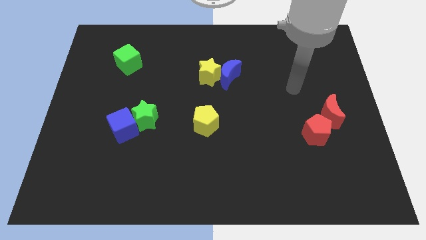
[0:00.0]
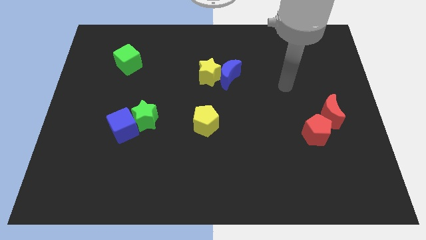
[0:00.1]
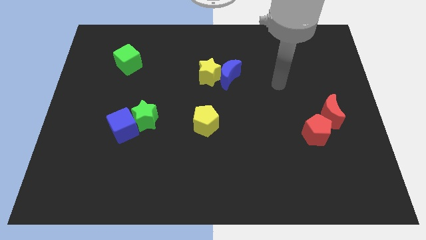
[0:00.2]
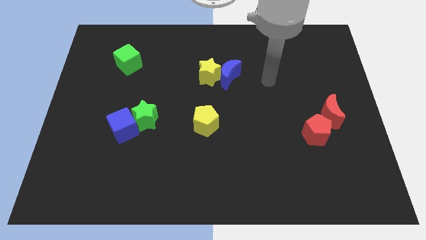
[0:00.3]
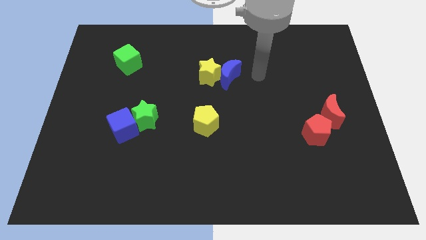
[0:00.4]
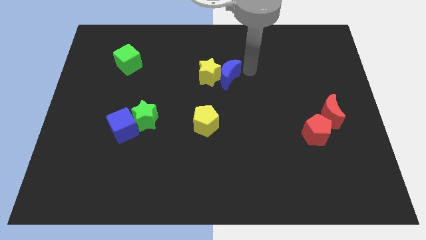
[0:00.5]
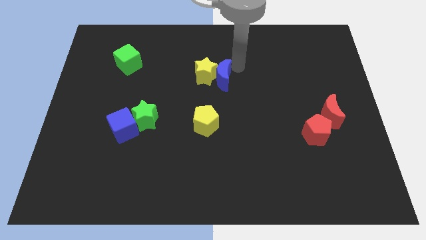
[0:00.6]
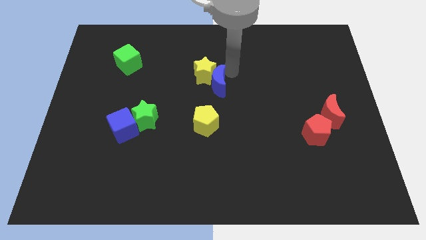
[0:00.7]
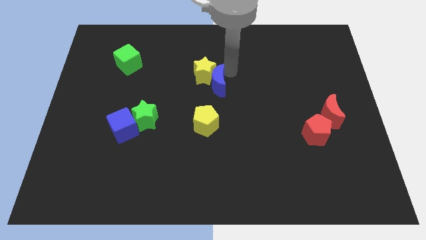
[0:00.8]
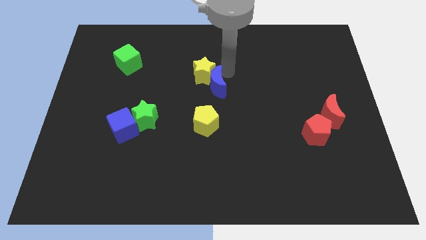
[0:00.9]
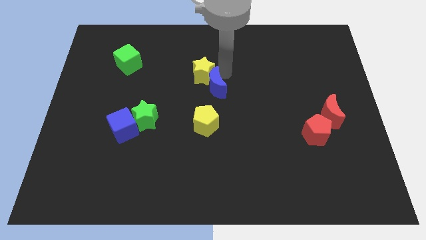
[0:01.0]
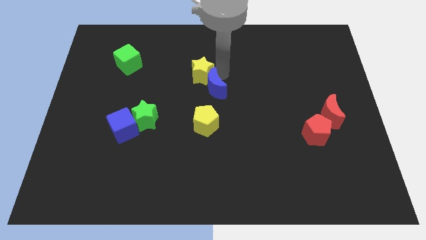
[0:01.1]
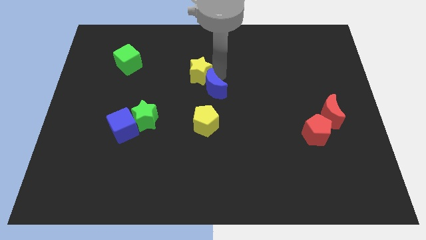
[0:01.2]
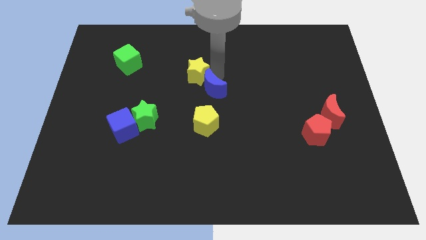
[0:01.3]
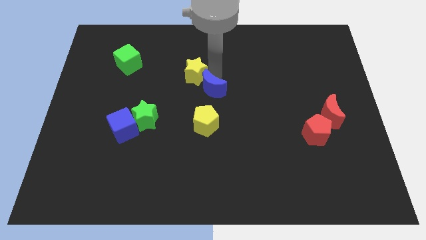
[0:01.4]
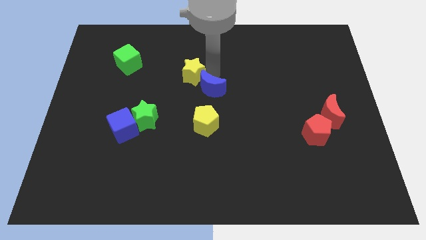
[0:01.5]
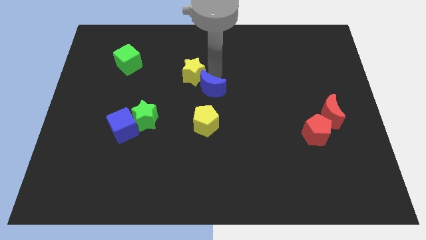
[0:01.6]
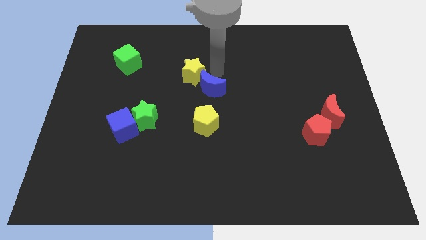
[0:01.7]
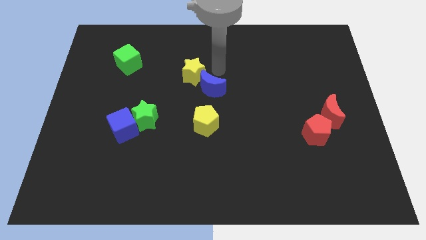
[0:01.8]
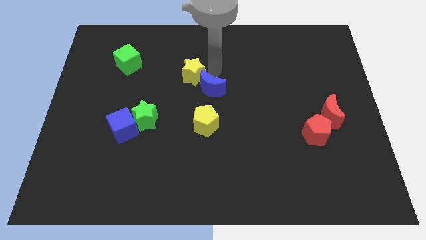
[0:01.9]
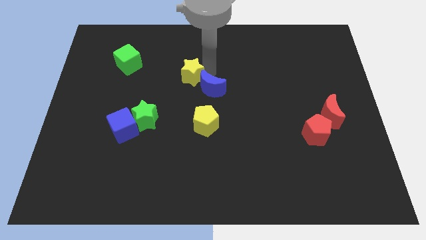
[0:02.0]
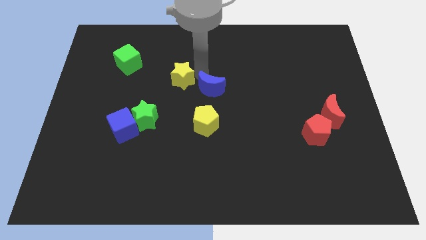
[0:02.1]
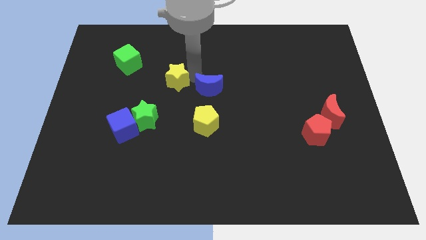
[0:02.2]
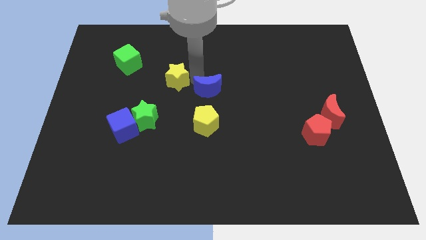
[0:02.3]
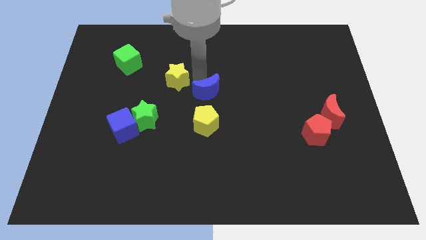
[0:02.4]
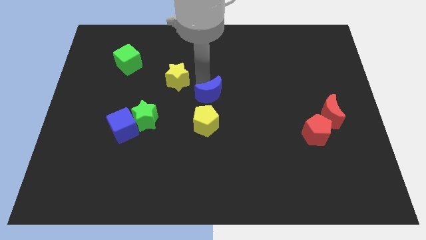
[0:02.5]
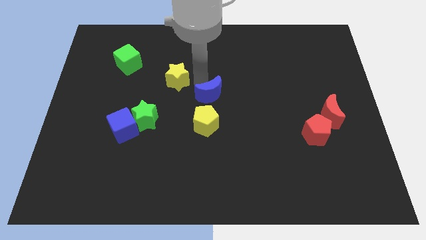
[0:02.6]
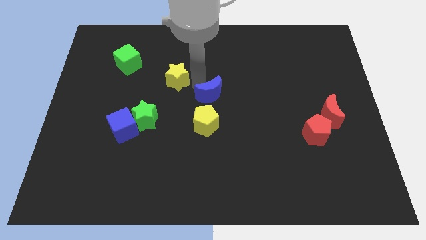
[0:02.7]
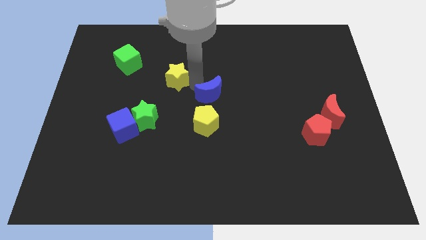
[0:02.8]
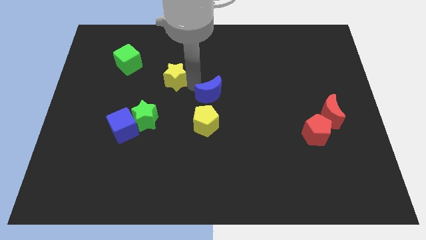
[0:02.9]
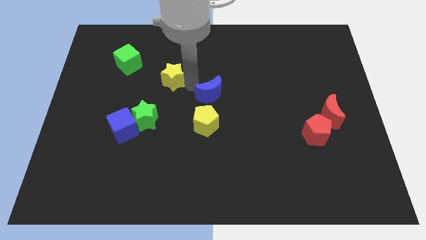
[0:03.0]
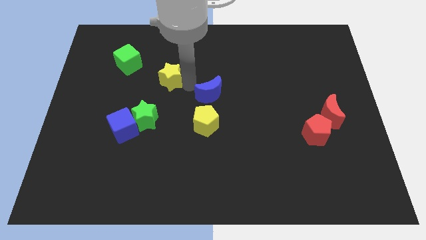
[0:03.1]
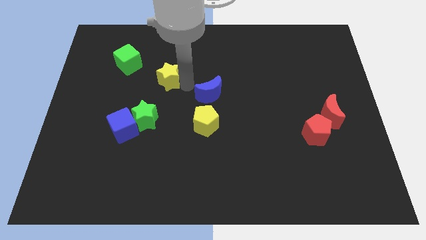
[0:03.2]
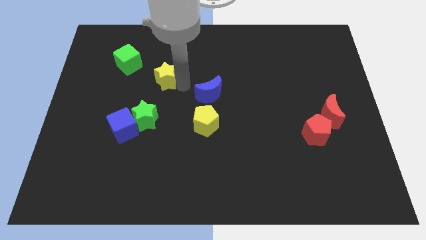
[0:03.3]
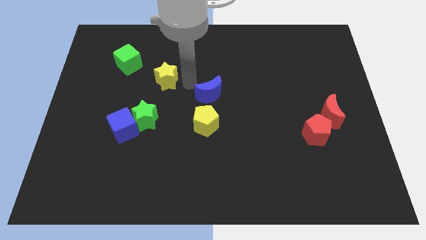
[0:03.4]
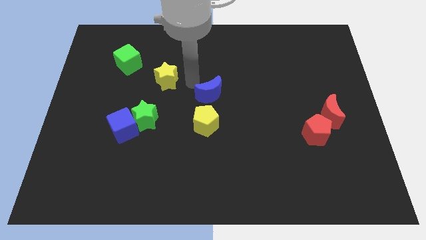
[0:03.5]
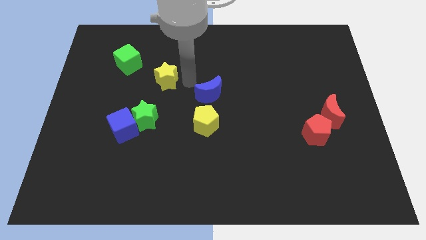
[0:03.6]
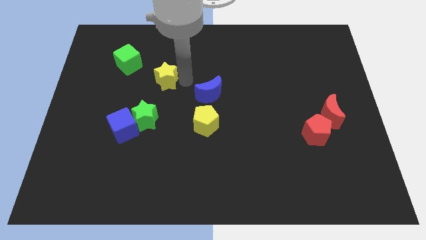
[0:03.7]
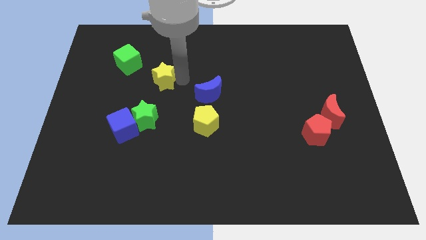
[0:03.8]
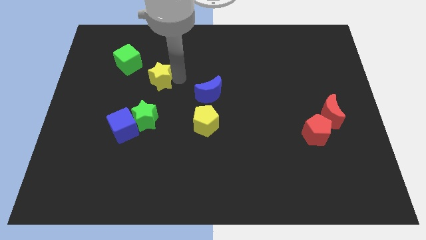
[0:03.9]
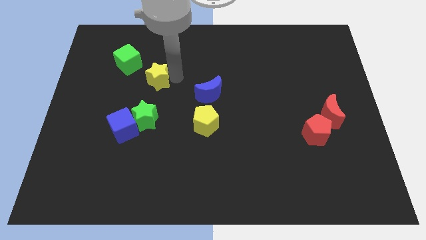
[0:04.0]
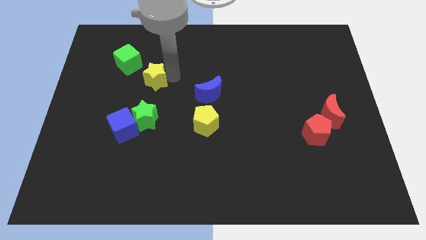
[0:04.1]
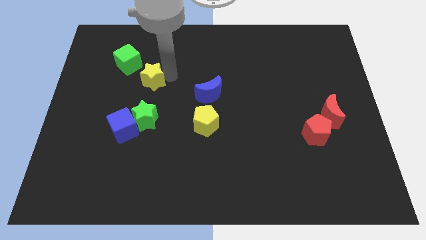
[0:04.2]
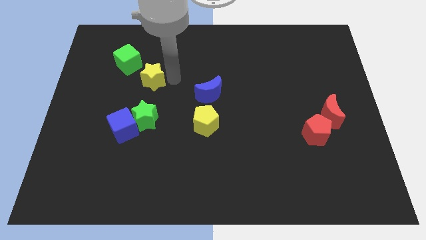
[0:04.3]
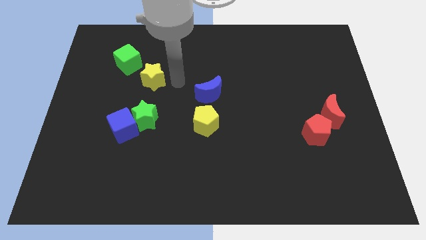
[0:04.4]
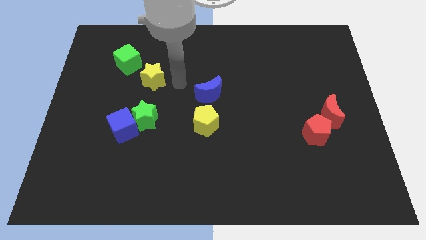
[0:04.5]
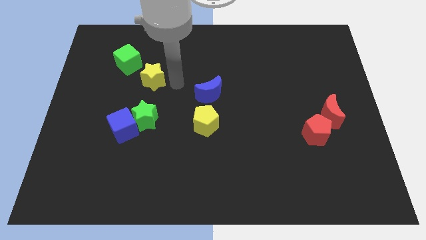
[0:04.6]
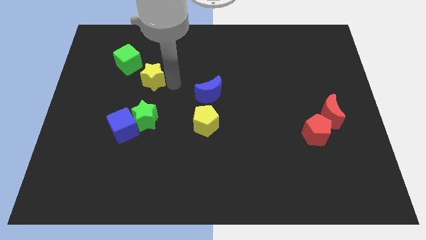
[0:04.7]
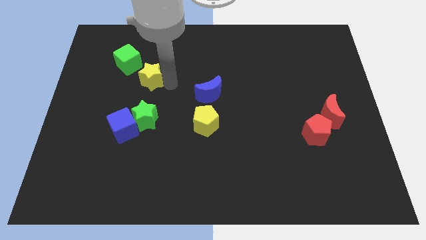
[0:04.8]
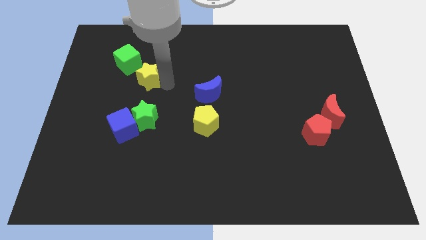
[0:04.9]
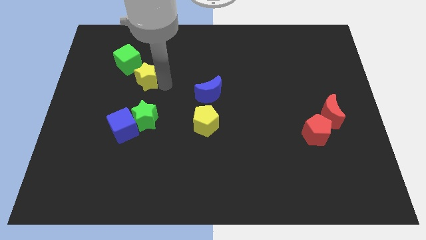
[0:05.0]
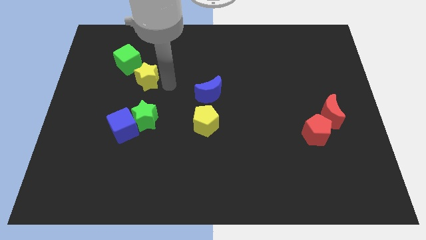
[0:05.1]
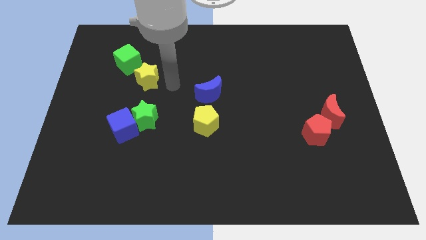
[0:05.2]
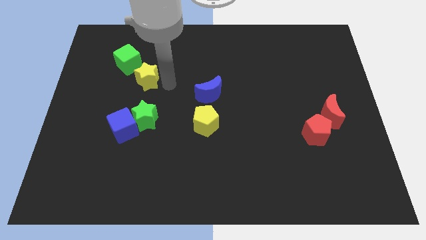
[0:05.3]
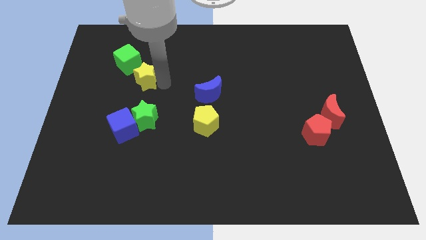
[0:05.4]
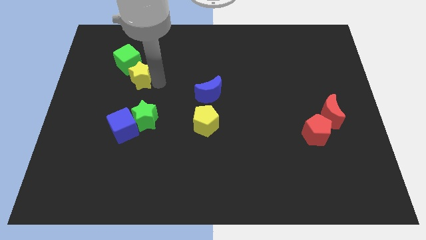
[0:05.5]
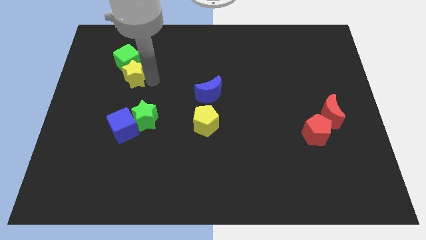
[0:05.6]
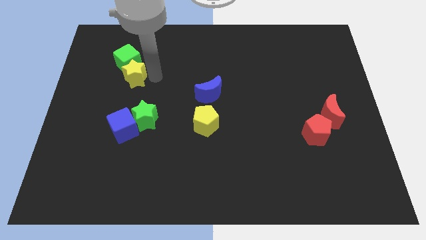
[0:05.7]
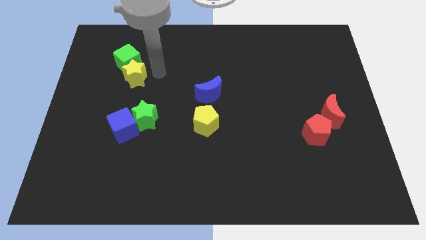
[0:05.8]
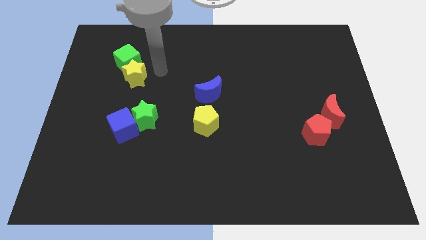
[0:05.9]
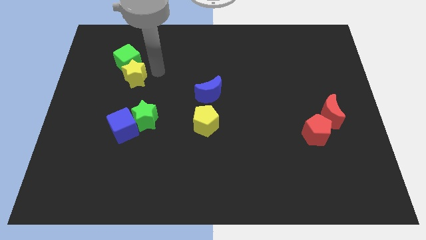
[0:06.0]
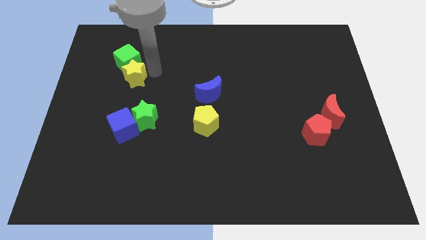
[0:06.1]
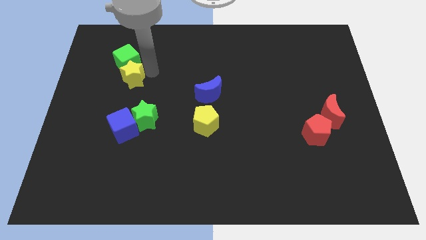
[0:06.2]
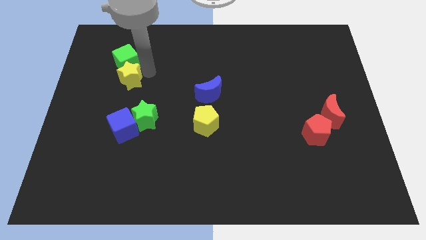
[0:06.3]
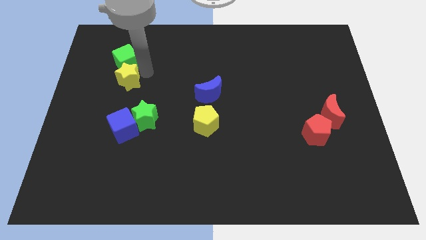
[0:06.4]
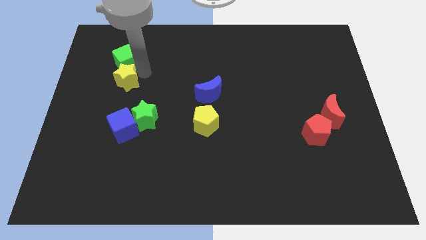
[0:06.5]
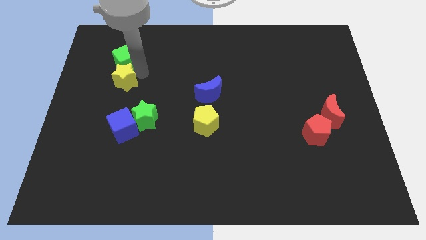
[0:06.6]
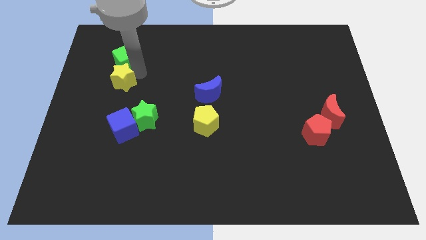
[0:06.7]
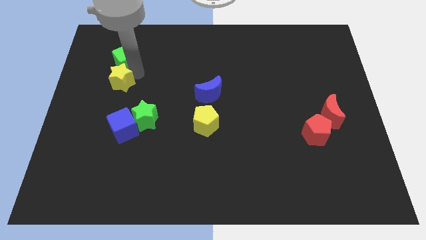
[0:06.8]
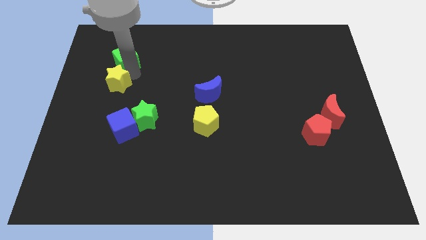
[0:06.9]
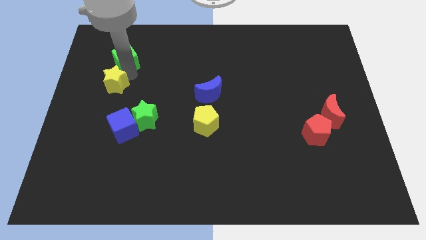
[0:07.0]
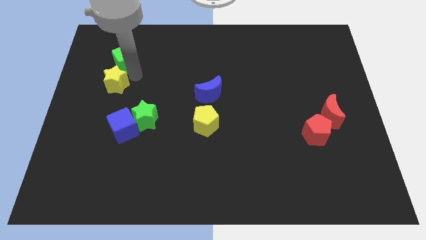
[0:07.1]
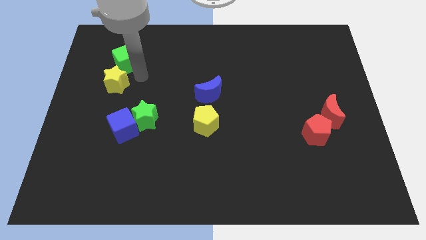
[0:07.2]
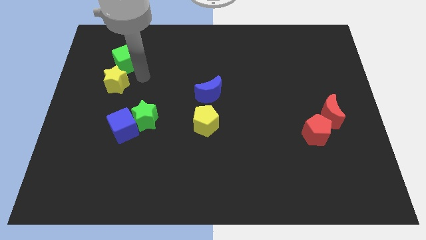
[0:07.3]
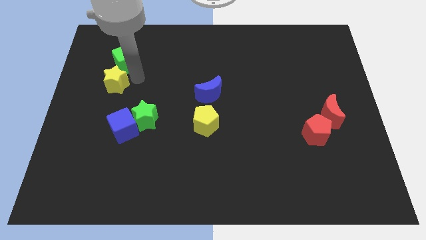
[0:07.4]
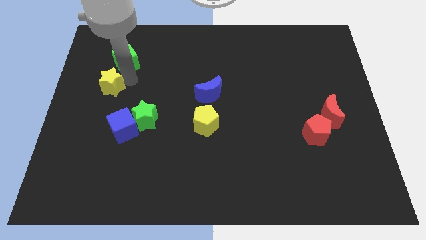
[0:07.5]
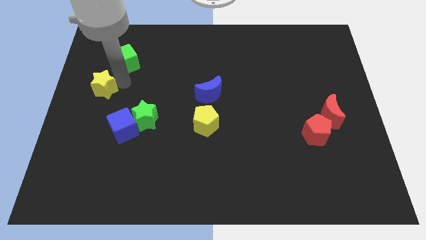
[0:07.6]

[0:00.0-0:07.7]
push the yellow star to the left side

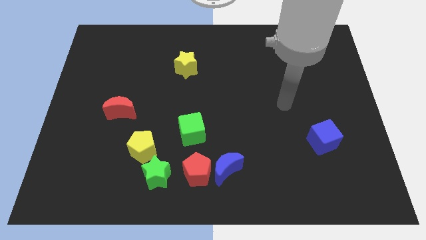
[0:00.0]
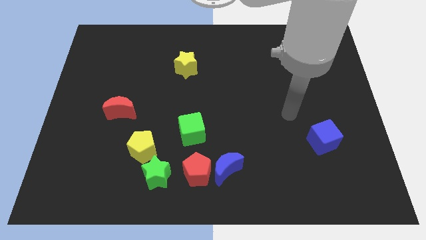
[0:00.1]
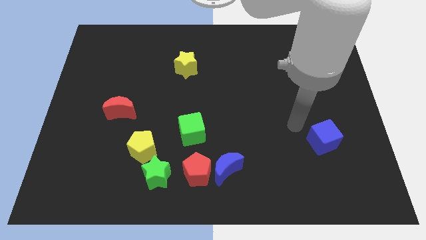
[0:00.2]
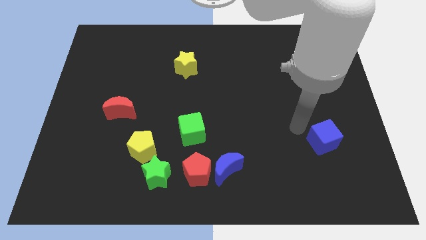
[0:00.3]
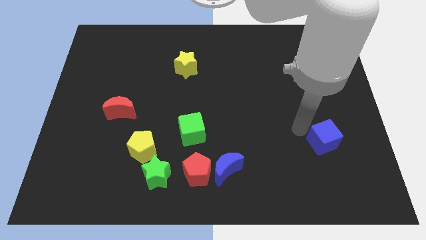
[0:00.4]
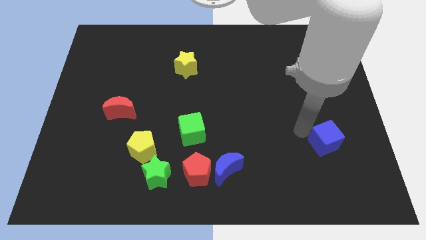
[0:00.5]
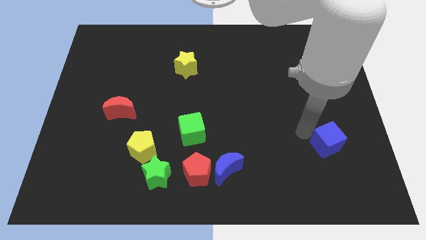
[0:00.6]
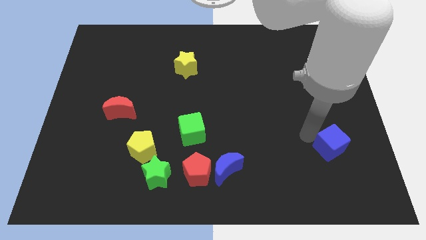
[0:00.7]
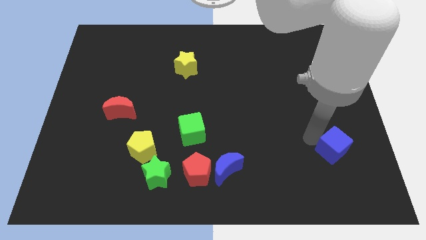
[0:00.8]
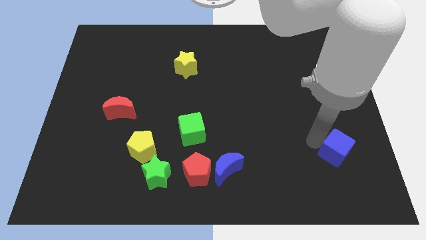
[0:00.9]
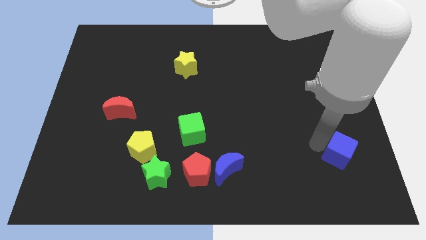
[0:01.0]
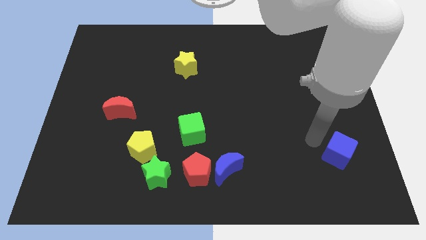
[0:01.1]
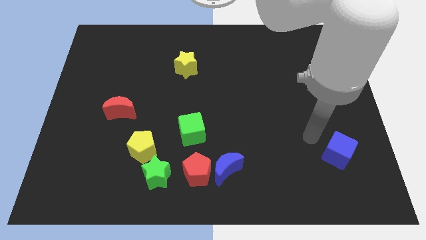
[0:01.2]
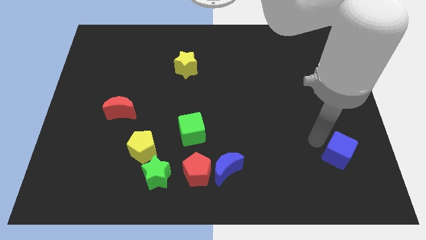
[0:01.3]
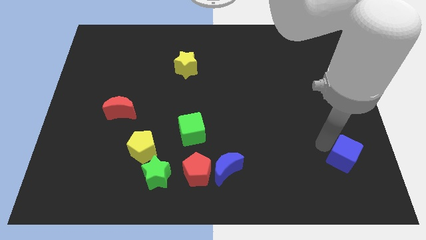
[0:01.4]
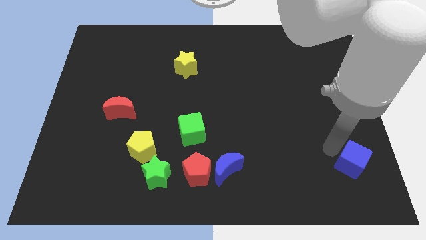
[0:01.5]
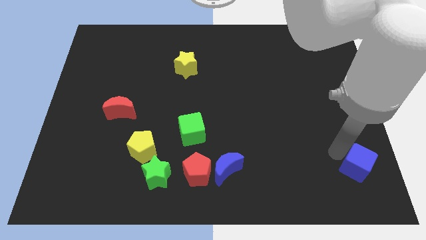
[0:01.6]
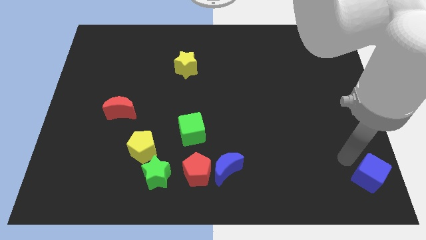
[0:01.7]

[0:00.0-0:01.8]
put the blue cube to the bottom right of the board
